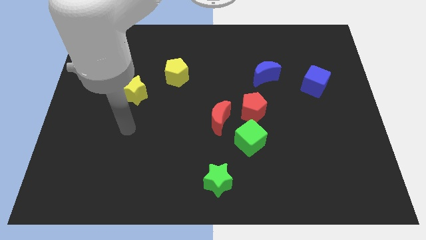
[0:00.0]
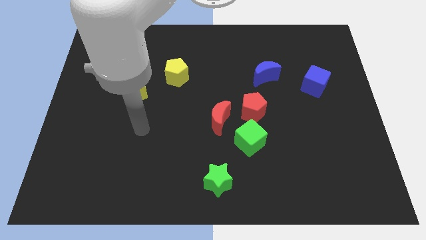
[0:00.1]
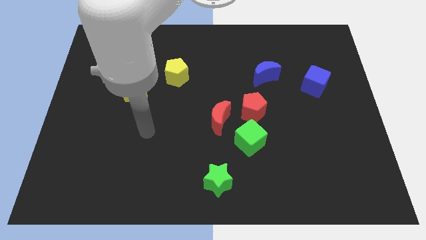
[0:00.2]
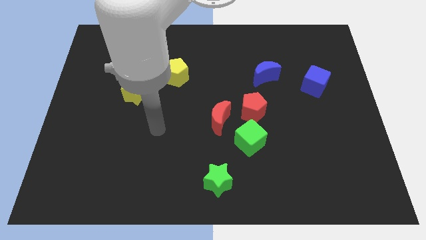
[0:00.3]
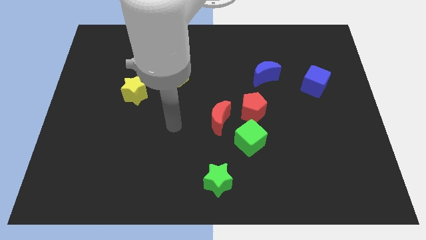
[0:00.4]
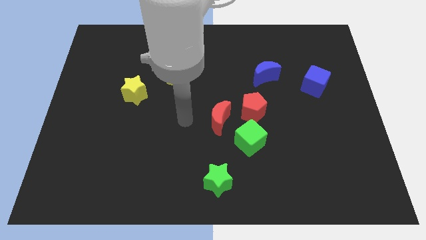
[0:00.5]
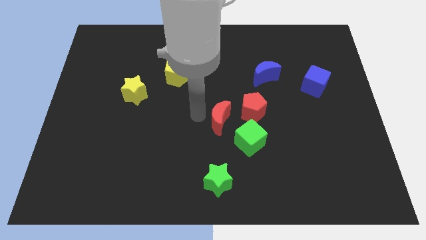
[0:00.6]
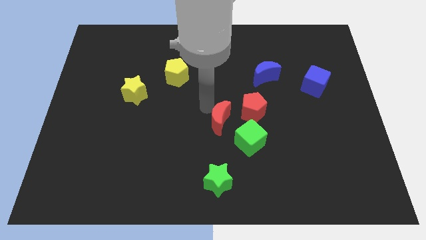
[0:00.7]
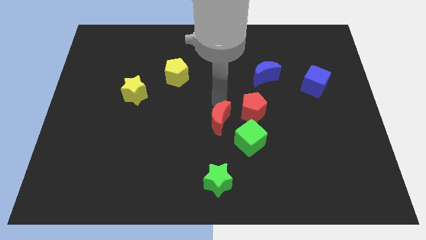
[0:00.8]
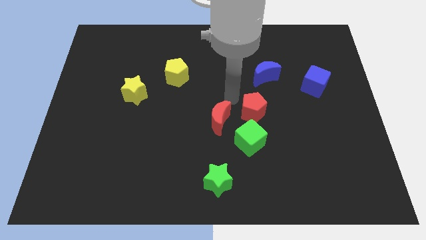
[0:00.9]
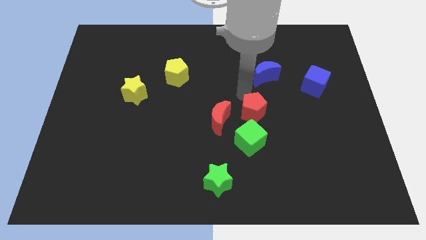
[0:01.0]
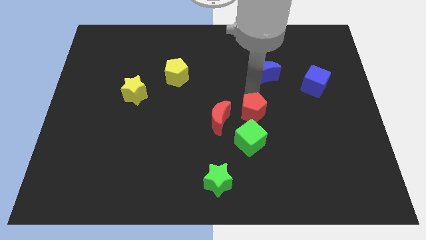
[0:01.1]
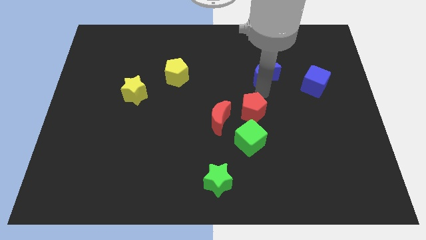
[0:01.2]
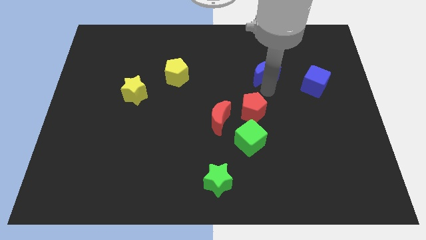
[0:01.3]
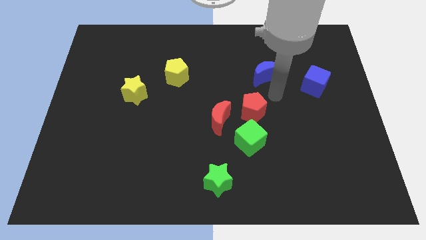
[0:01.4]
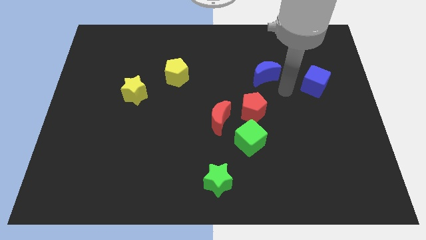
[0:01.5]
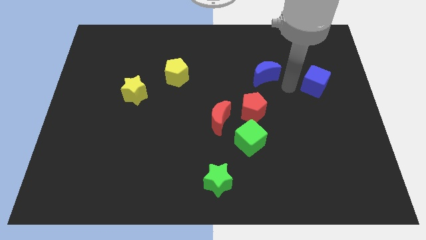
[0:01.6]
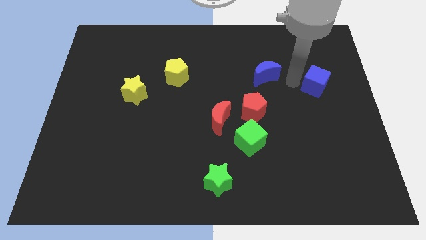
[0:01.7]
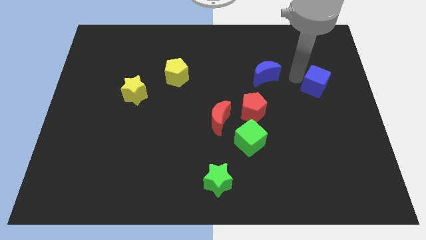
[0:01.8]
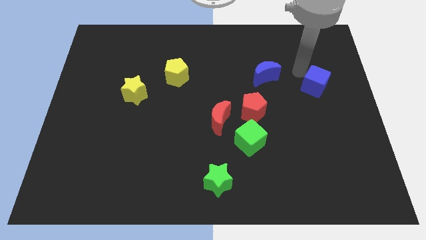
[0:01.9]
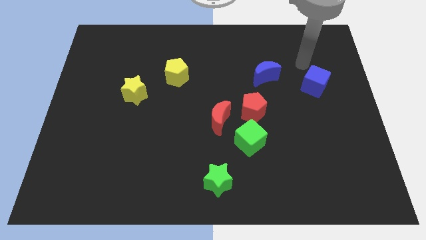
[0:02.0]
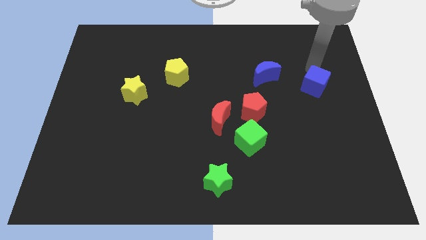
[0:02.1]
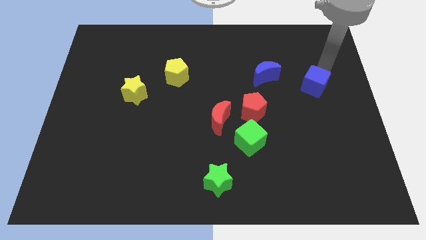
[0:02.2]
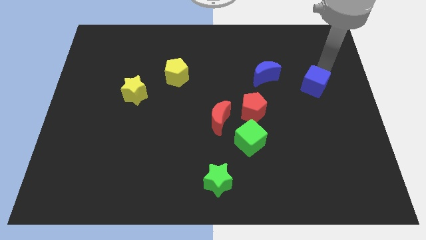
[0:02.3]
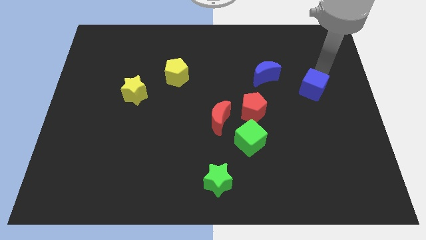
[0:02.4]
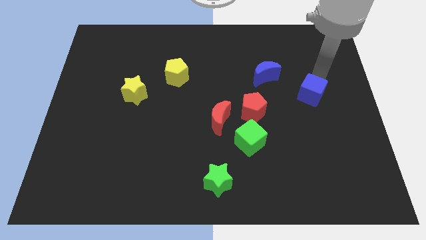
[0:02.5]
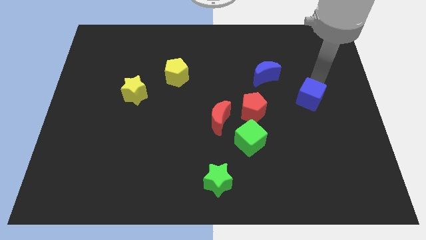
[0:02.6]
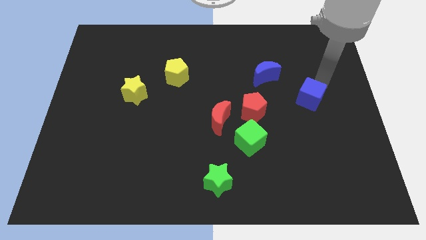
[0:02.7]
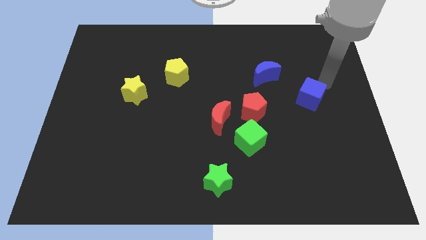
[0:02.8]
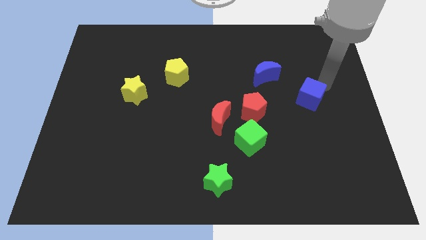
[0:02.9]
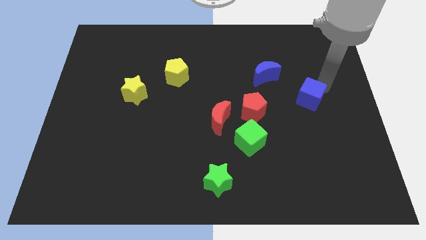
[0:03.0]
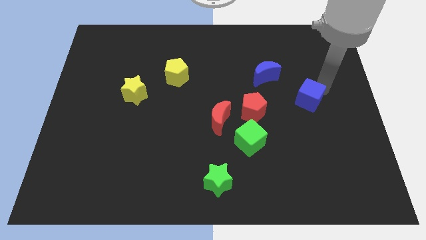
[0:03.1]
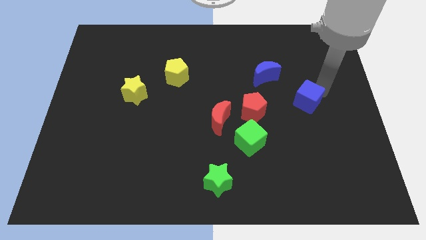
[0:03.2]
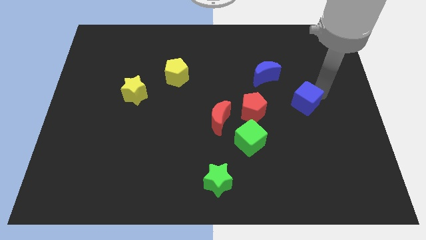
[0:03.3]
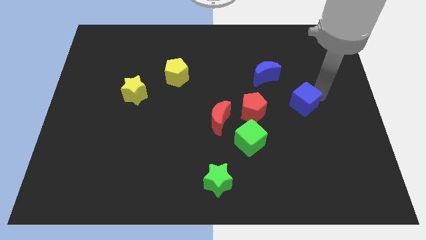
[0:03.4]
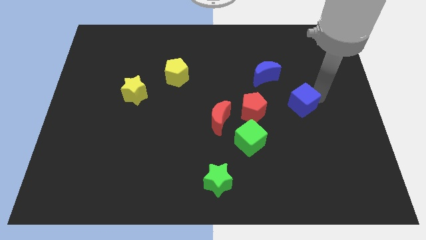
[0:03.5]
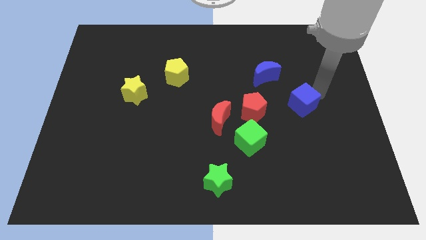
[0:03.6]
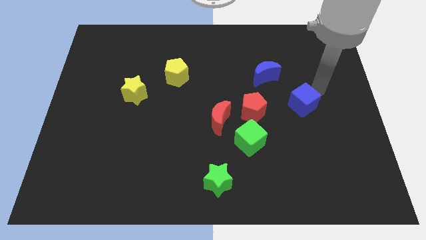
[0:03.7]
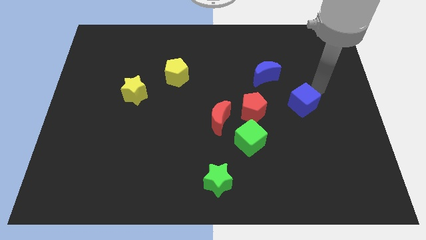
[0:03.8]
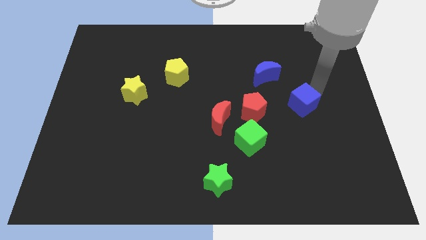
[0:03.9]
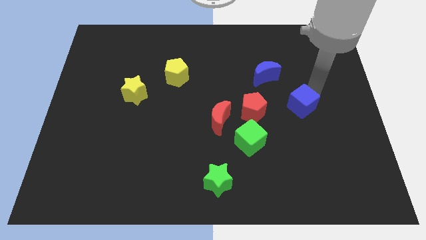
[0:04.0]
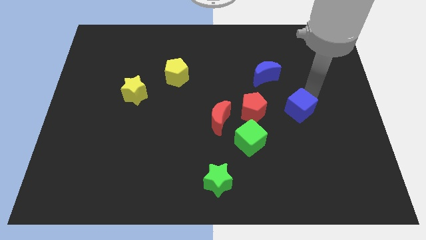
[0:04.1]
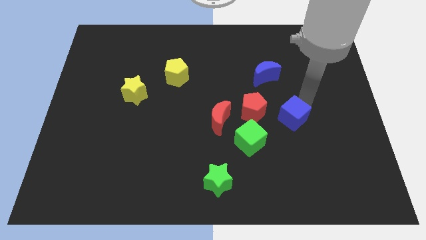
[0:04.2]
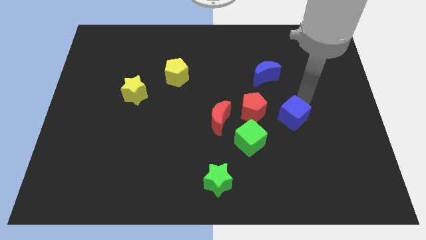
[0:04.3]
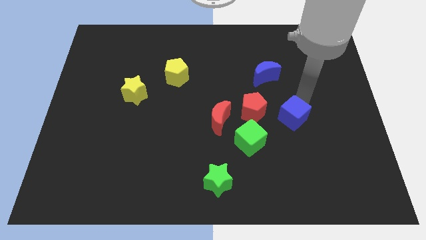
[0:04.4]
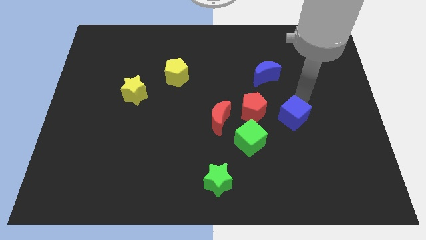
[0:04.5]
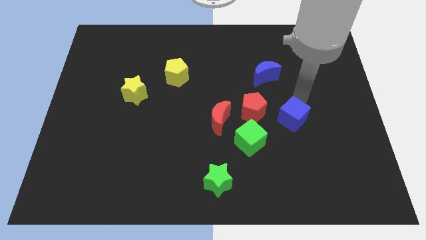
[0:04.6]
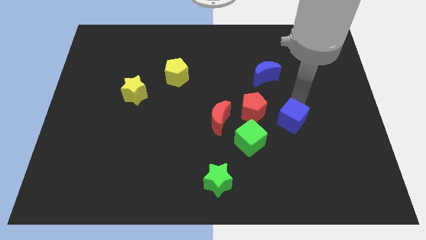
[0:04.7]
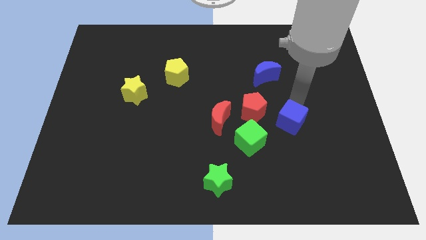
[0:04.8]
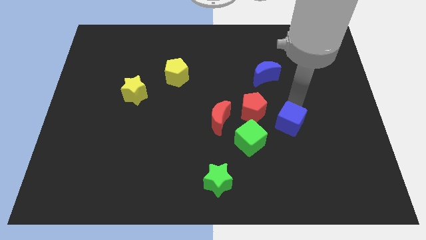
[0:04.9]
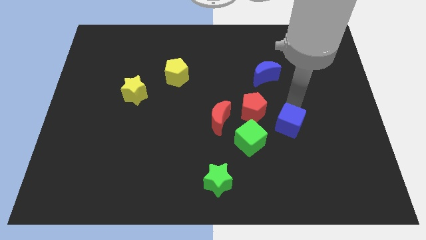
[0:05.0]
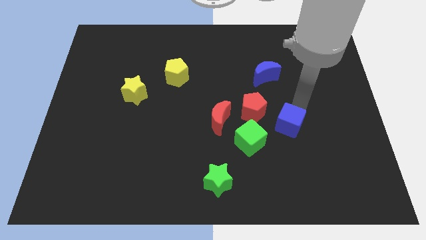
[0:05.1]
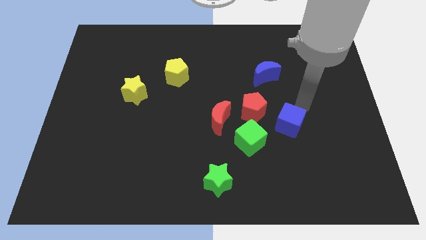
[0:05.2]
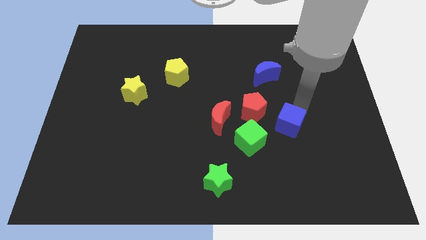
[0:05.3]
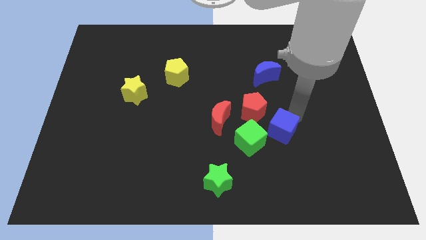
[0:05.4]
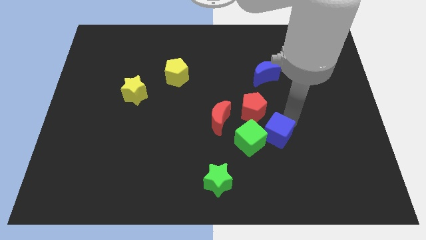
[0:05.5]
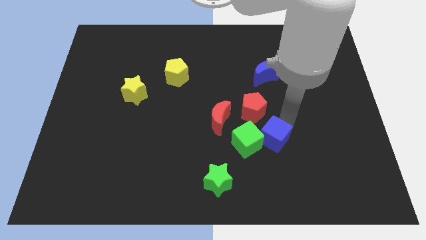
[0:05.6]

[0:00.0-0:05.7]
move the blue cube to the bottom of the red pentagon

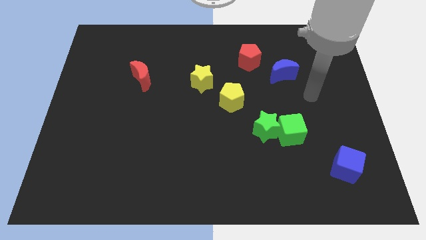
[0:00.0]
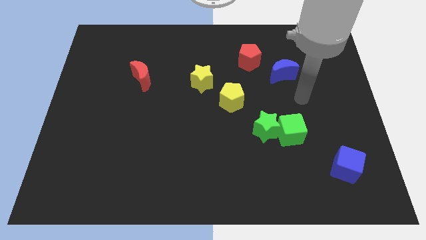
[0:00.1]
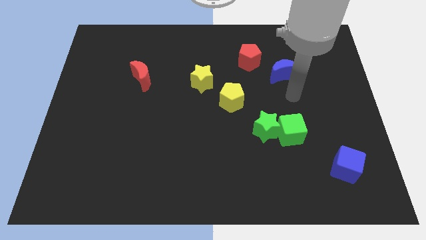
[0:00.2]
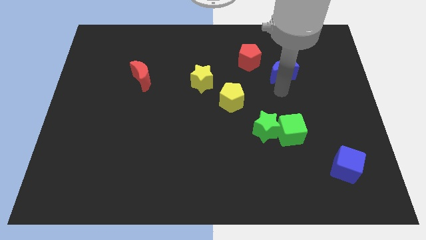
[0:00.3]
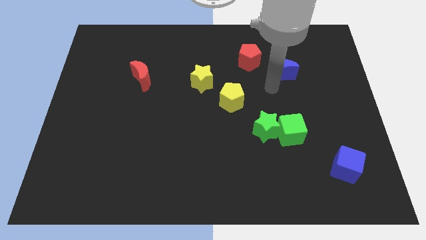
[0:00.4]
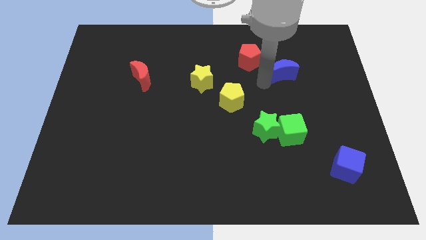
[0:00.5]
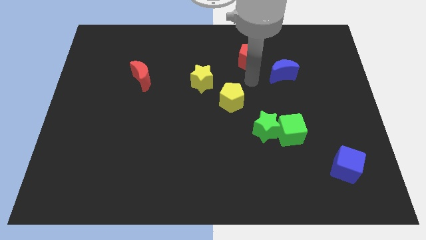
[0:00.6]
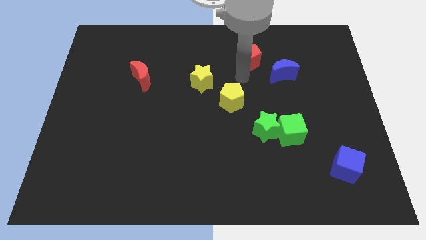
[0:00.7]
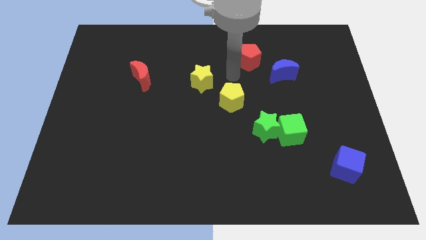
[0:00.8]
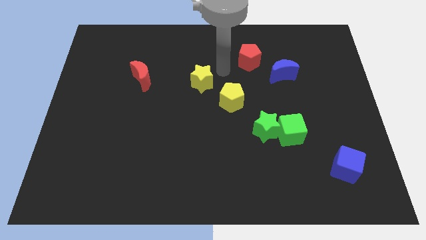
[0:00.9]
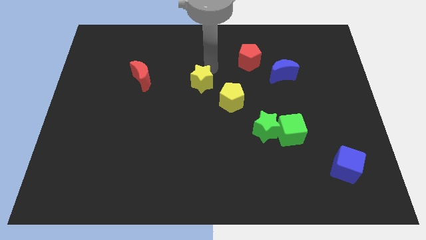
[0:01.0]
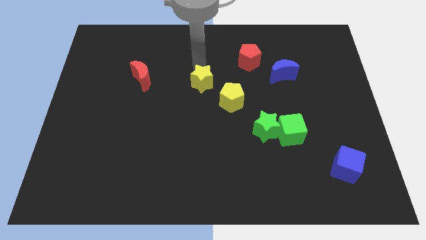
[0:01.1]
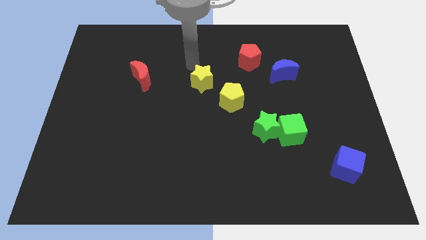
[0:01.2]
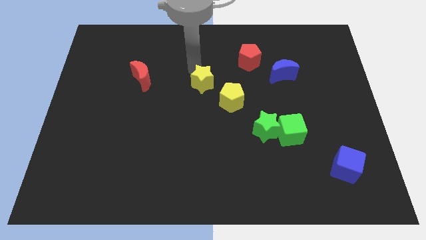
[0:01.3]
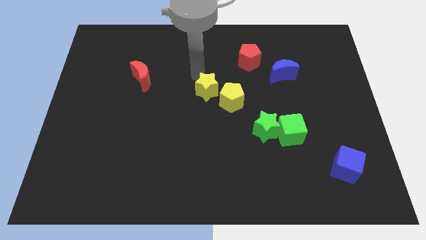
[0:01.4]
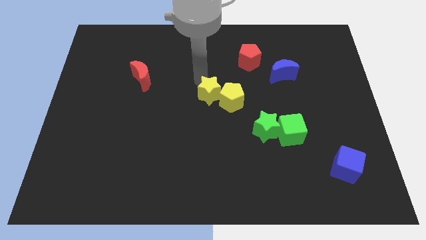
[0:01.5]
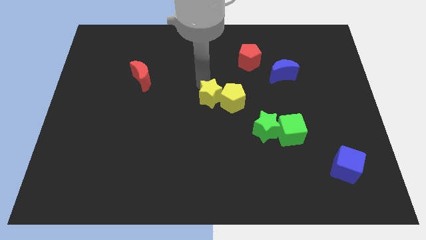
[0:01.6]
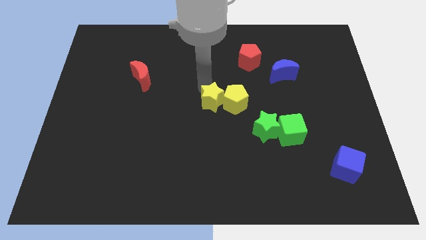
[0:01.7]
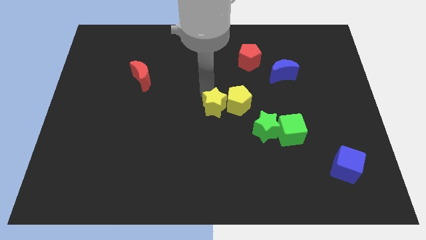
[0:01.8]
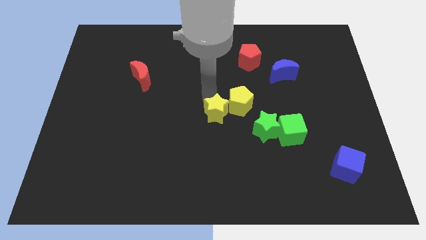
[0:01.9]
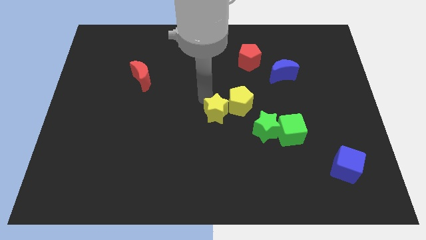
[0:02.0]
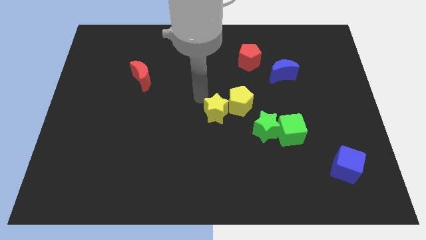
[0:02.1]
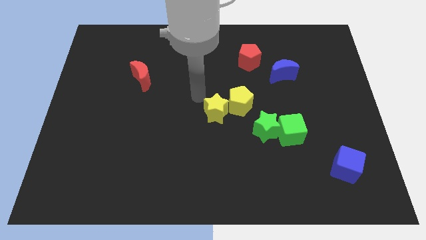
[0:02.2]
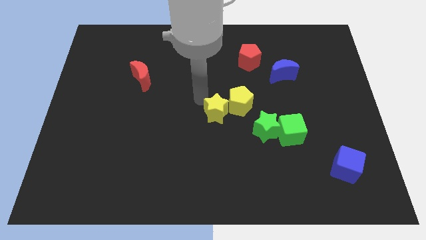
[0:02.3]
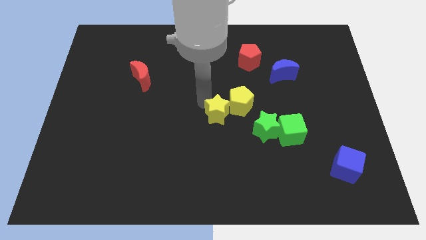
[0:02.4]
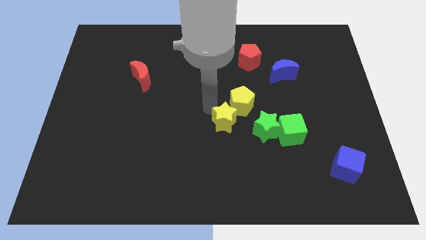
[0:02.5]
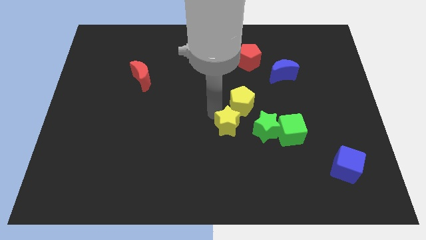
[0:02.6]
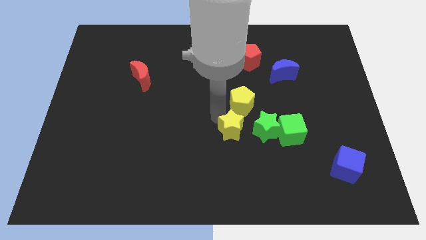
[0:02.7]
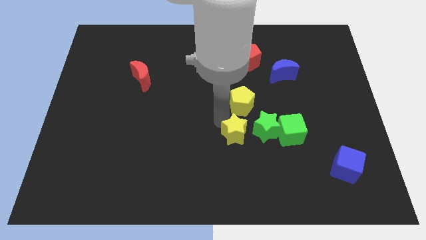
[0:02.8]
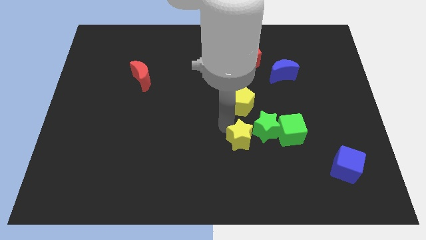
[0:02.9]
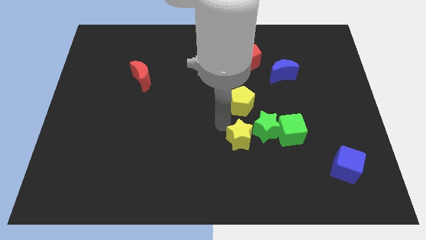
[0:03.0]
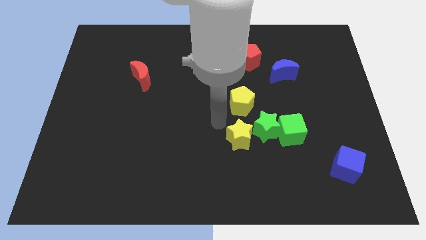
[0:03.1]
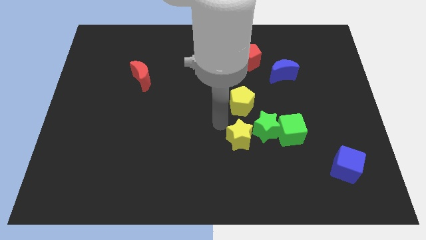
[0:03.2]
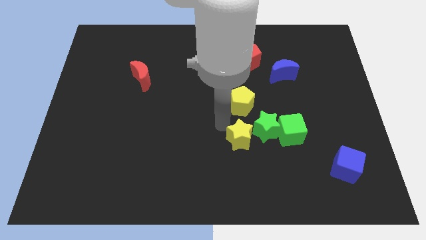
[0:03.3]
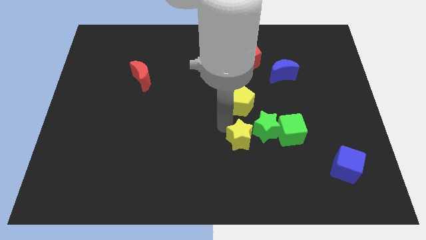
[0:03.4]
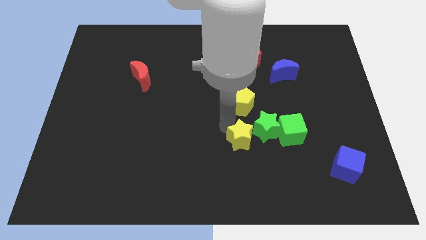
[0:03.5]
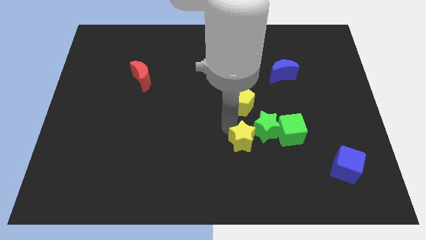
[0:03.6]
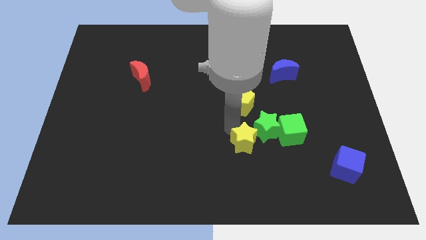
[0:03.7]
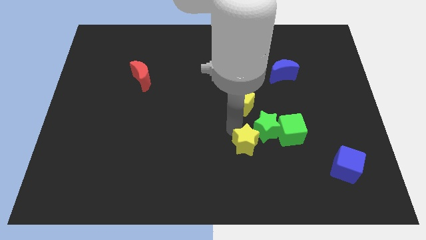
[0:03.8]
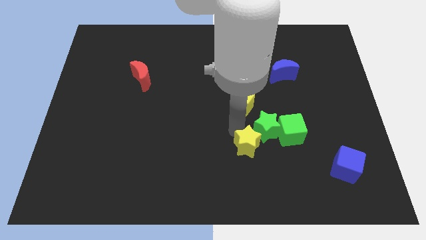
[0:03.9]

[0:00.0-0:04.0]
push the yellow star to the bottom left side of the green cube
